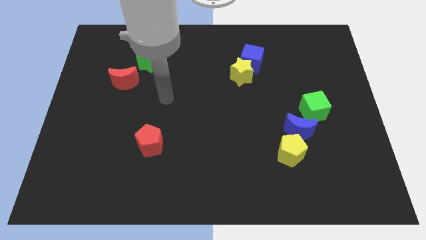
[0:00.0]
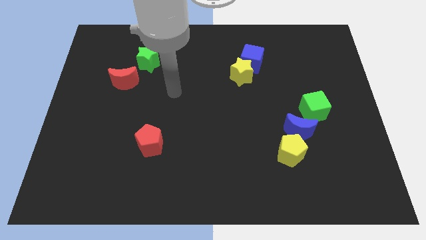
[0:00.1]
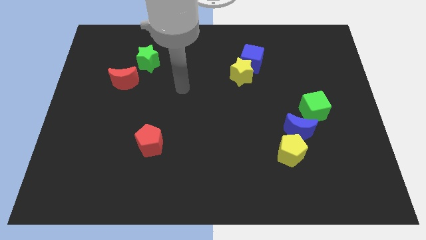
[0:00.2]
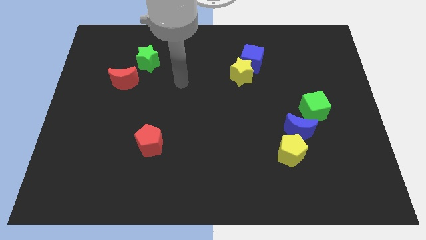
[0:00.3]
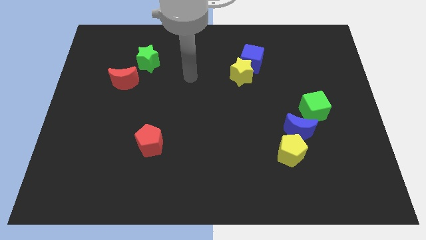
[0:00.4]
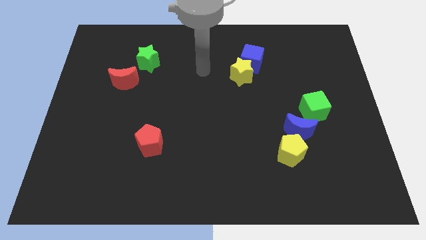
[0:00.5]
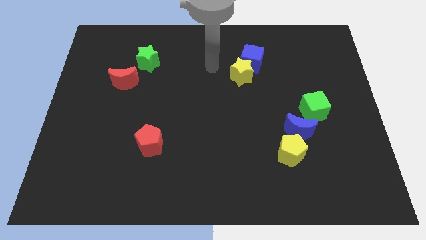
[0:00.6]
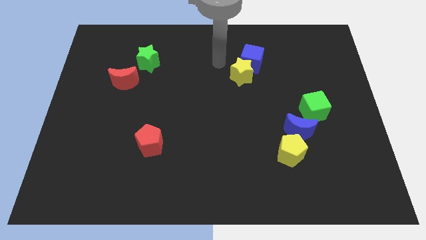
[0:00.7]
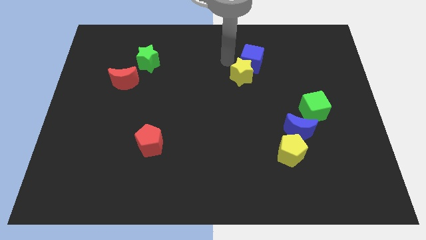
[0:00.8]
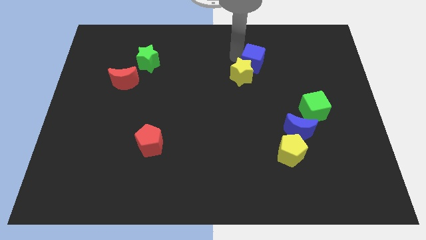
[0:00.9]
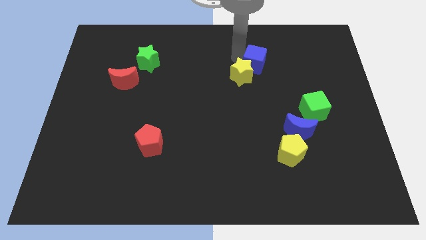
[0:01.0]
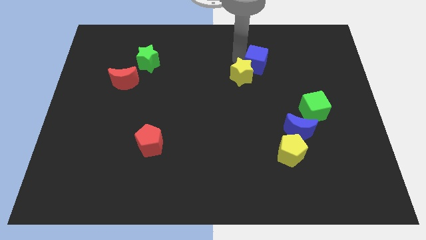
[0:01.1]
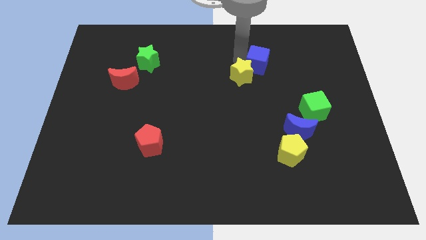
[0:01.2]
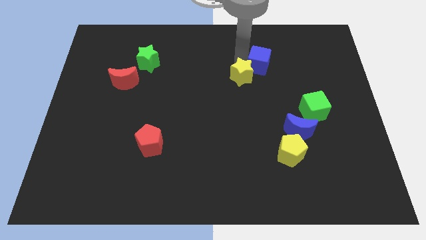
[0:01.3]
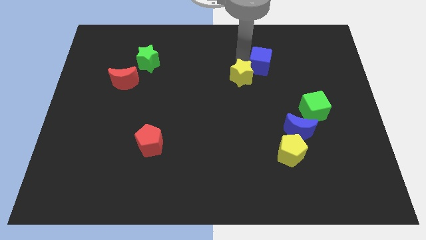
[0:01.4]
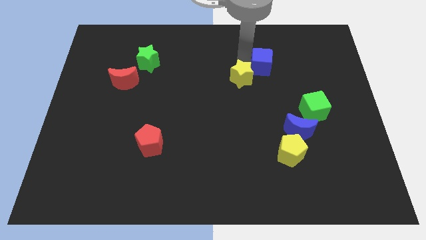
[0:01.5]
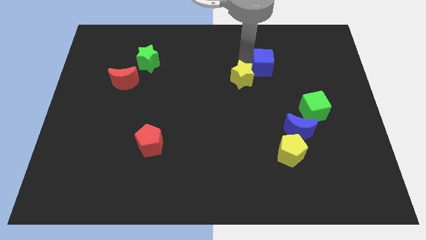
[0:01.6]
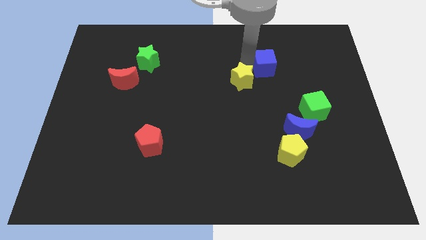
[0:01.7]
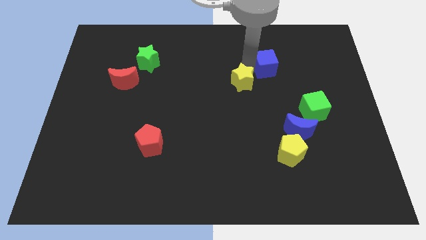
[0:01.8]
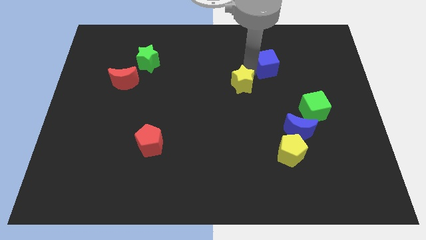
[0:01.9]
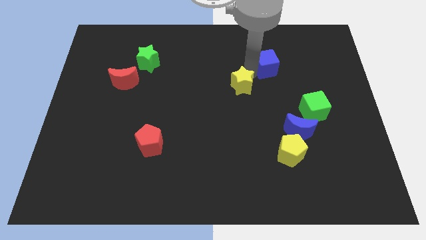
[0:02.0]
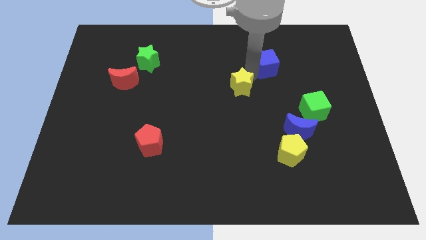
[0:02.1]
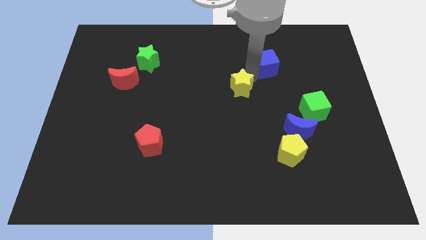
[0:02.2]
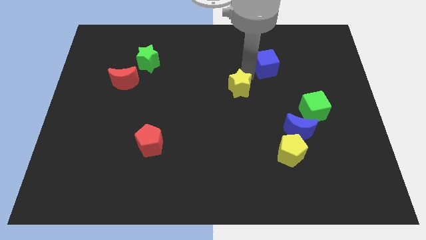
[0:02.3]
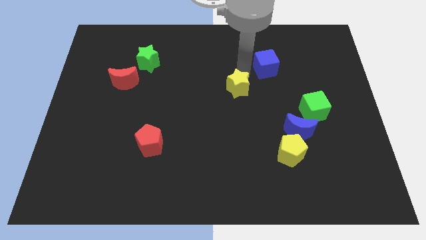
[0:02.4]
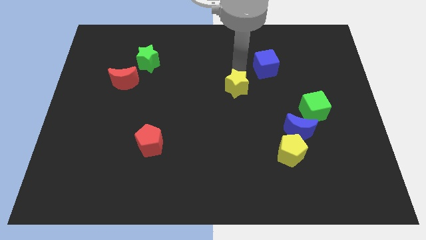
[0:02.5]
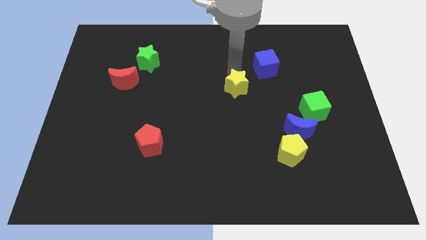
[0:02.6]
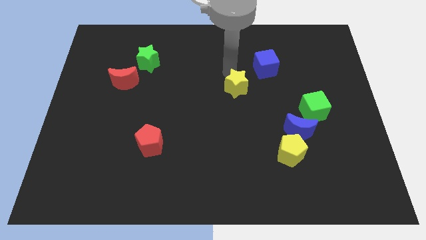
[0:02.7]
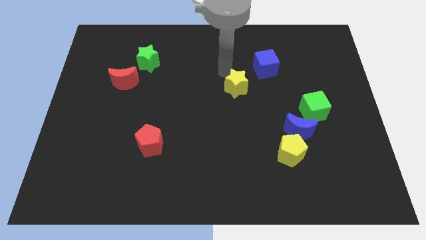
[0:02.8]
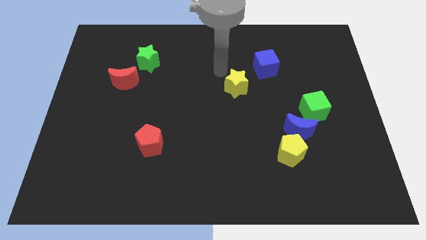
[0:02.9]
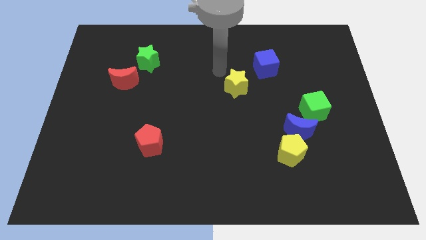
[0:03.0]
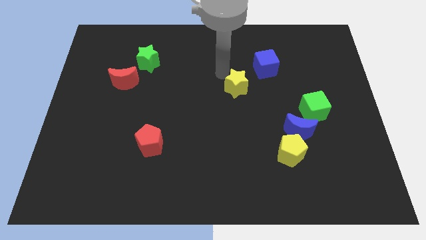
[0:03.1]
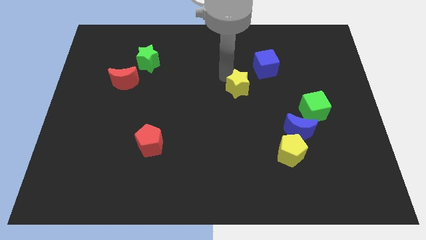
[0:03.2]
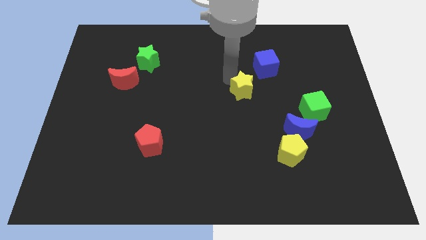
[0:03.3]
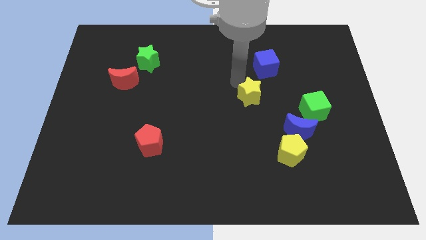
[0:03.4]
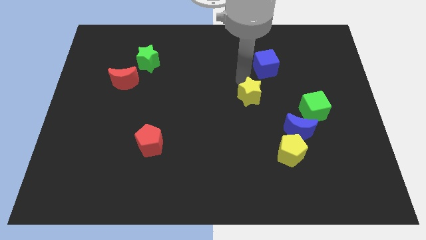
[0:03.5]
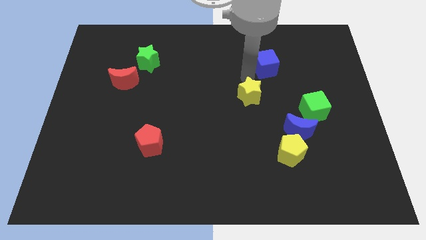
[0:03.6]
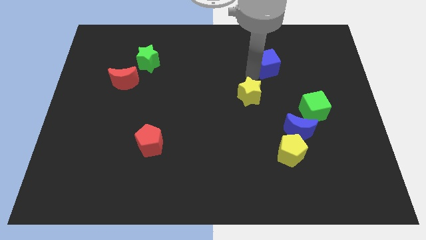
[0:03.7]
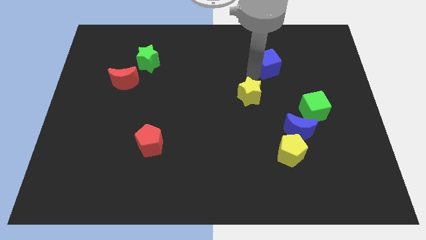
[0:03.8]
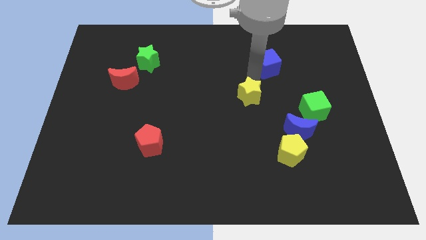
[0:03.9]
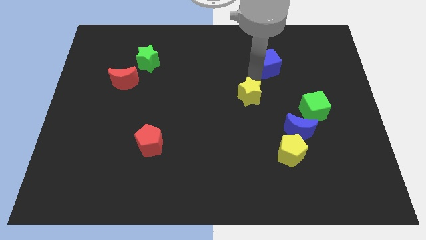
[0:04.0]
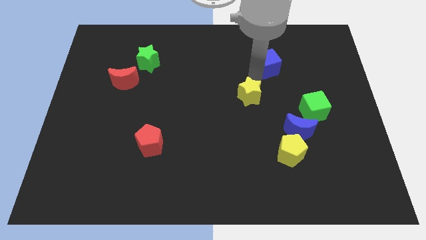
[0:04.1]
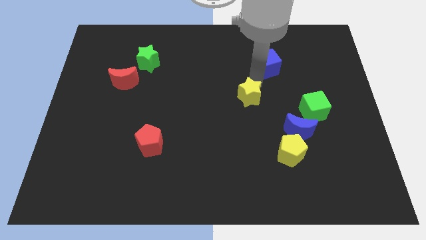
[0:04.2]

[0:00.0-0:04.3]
push the yellow star somewhat down

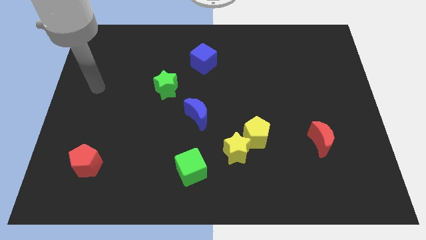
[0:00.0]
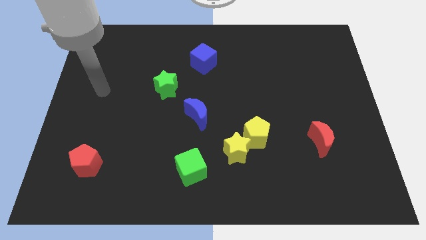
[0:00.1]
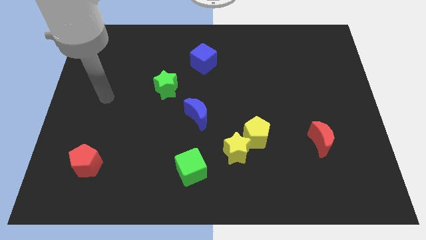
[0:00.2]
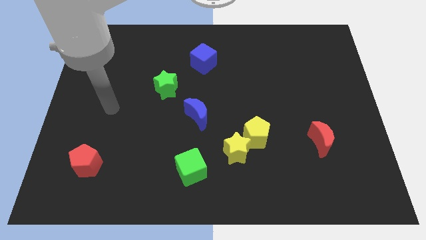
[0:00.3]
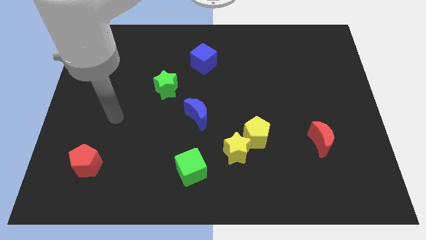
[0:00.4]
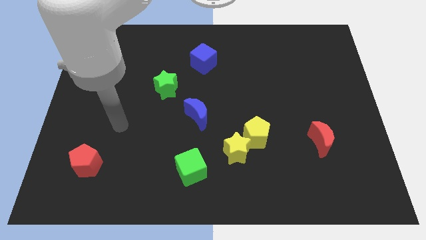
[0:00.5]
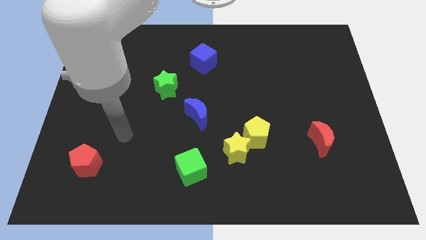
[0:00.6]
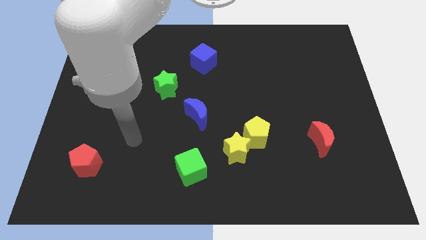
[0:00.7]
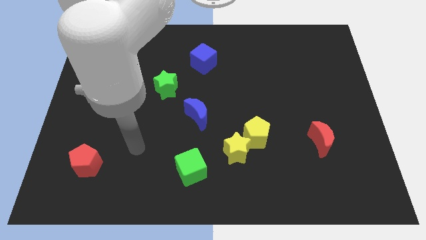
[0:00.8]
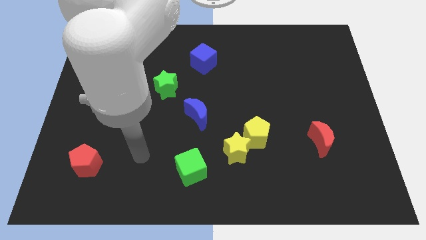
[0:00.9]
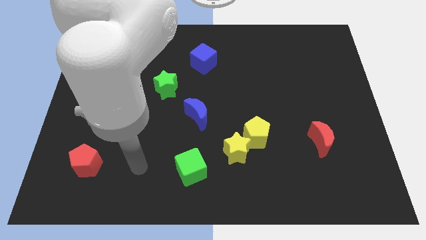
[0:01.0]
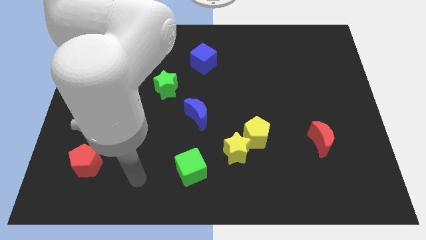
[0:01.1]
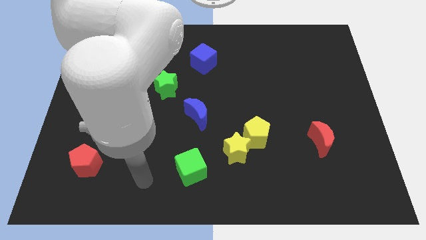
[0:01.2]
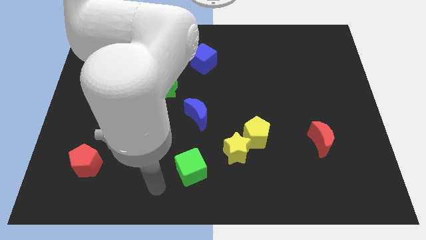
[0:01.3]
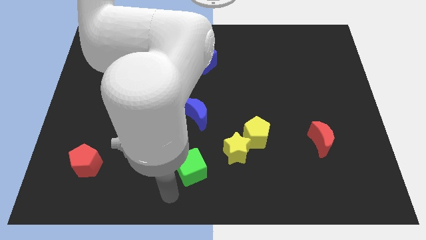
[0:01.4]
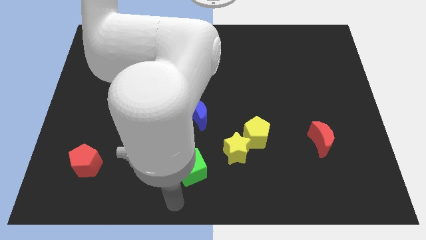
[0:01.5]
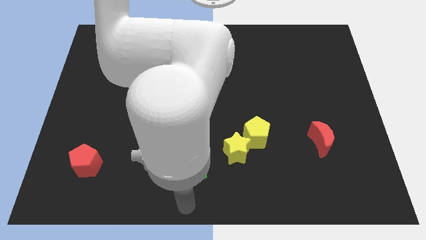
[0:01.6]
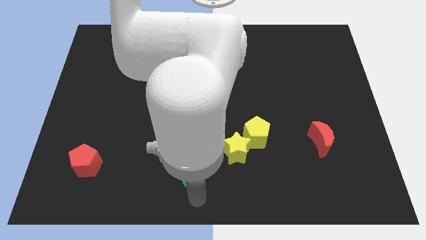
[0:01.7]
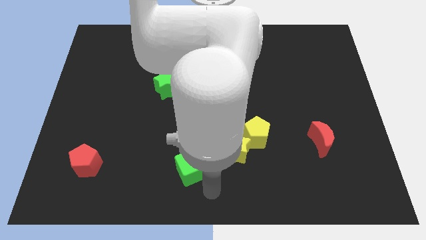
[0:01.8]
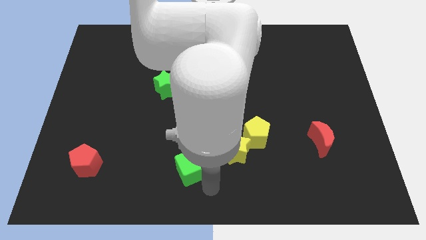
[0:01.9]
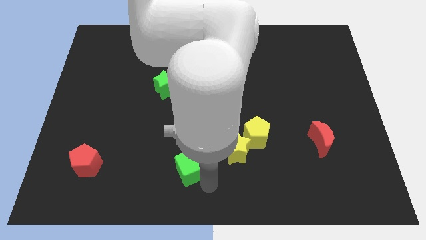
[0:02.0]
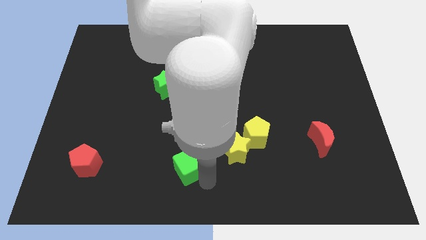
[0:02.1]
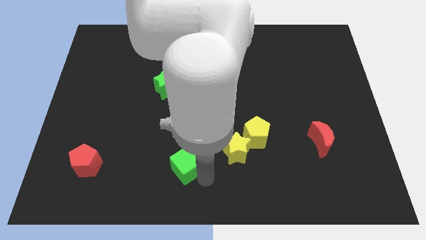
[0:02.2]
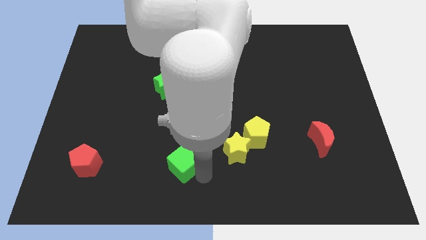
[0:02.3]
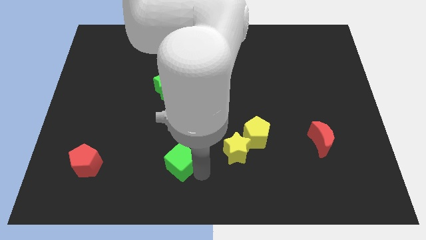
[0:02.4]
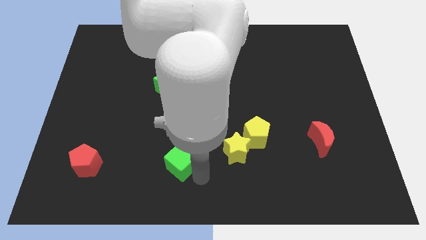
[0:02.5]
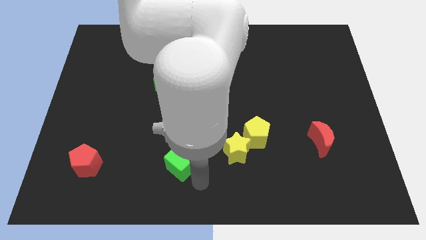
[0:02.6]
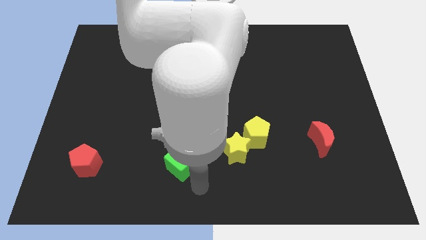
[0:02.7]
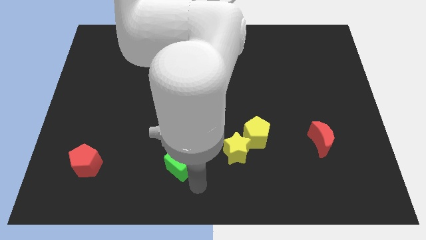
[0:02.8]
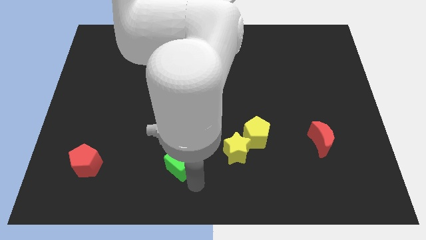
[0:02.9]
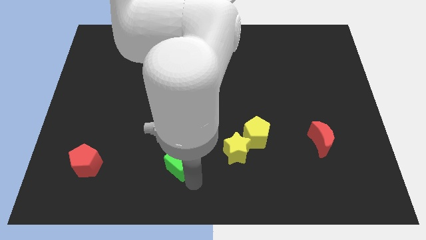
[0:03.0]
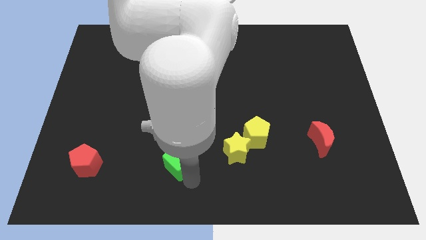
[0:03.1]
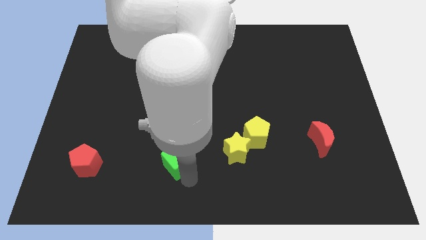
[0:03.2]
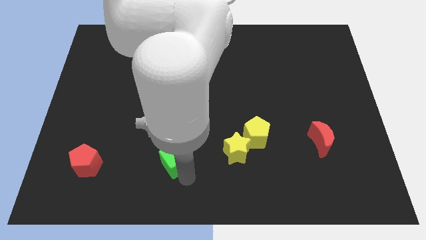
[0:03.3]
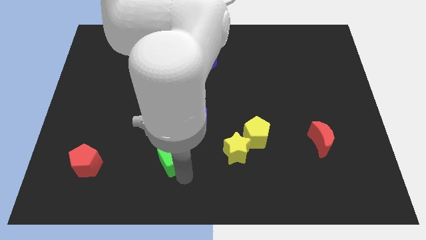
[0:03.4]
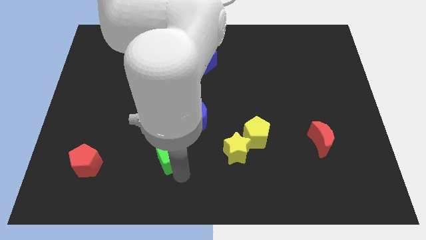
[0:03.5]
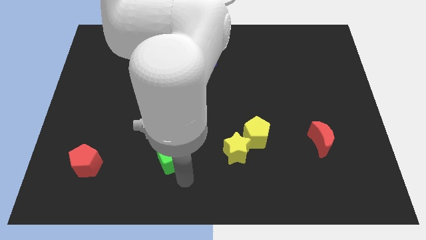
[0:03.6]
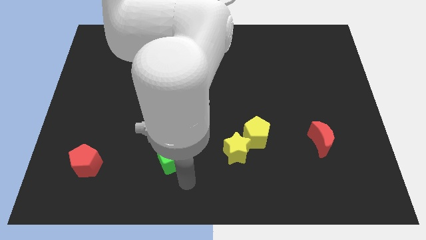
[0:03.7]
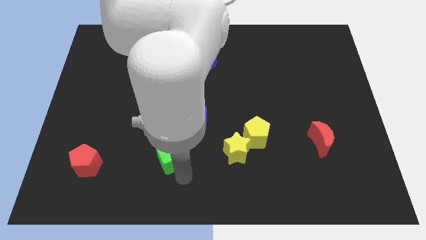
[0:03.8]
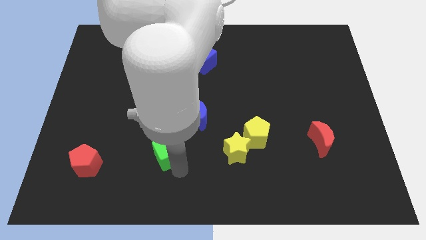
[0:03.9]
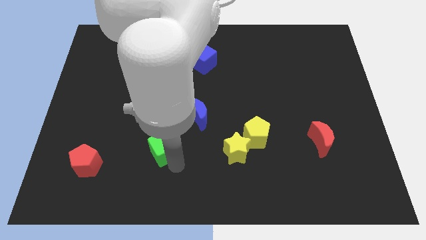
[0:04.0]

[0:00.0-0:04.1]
push the green cube up and to the left diagonally a bit
